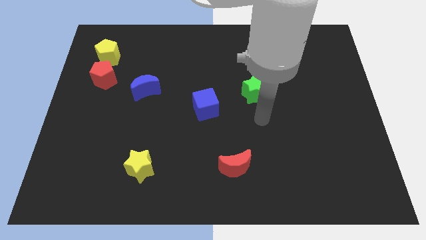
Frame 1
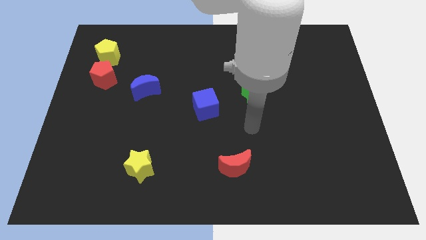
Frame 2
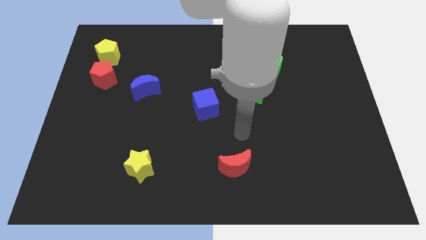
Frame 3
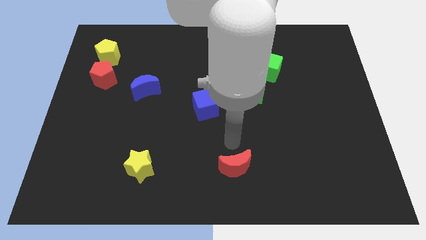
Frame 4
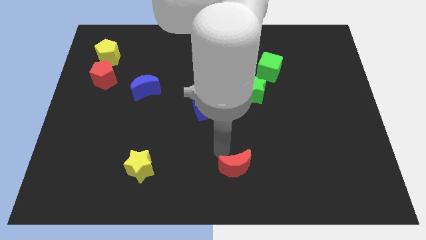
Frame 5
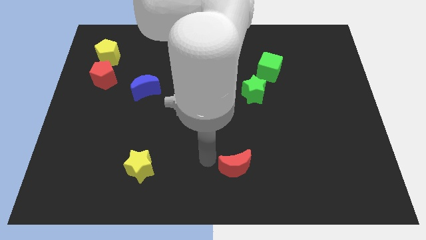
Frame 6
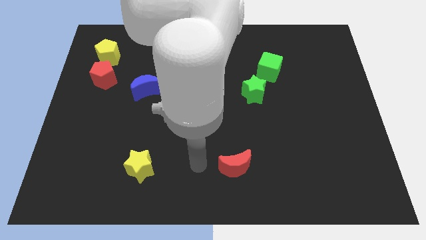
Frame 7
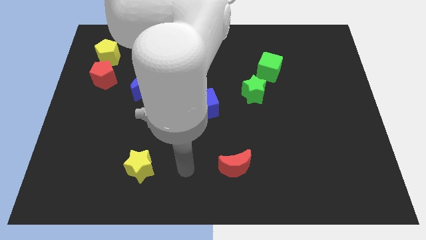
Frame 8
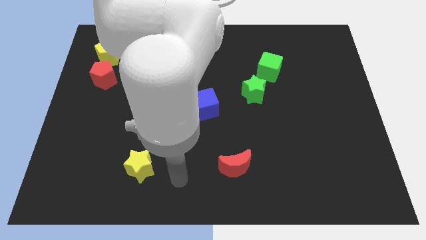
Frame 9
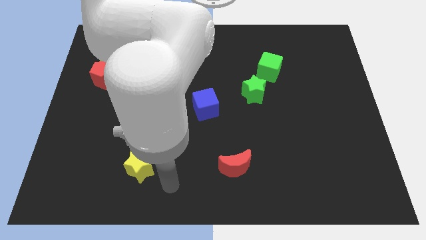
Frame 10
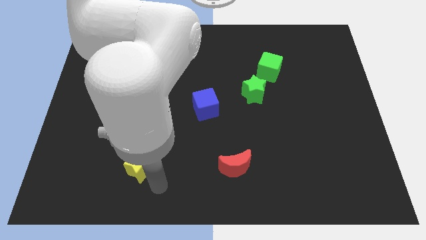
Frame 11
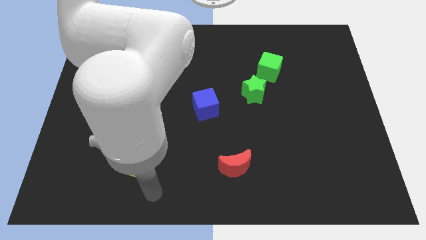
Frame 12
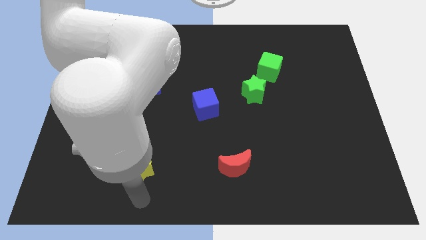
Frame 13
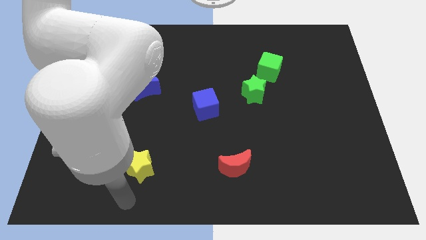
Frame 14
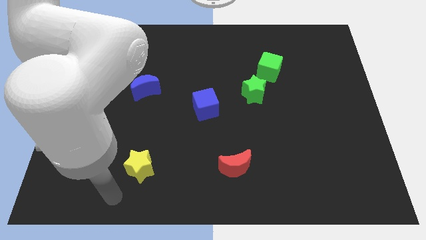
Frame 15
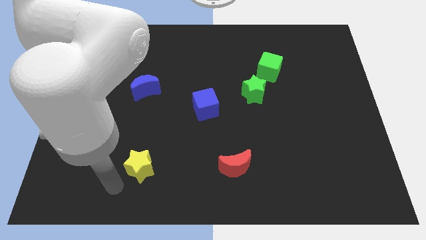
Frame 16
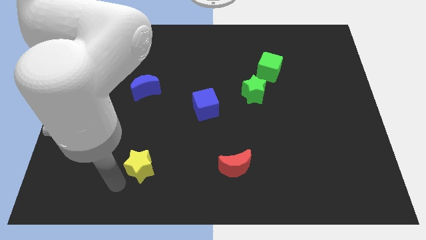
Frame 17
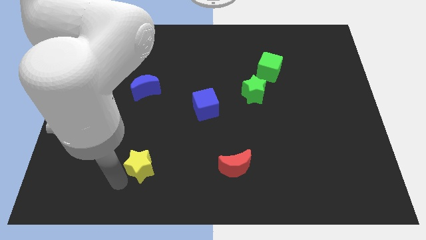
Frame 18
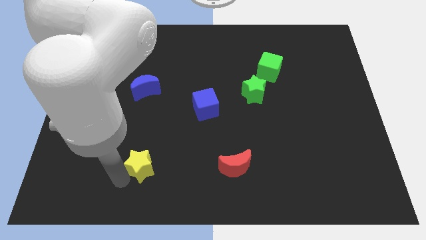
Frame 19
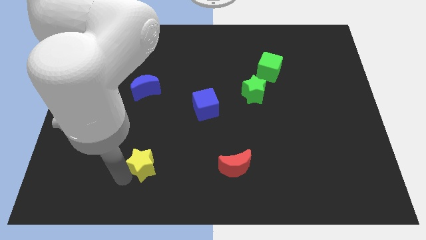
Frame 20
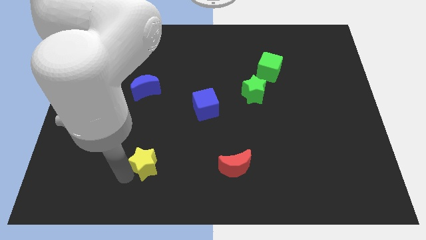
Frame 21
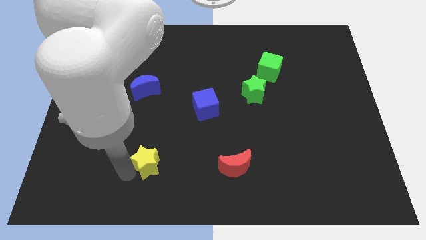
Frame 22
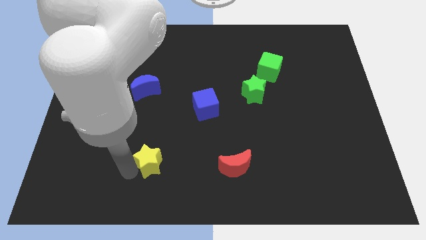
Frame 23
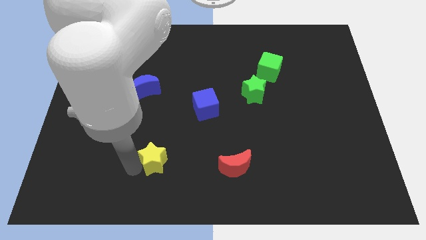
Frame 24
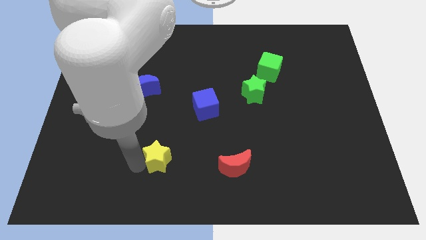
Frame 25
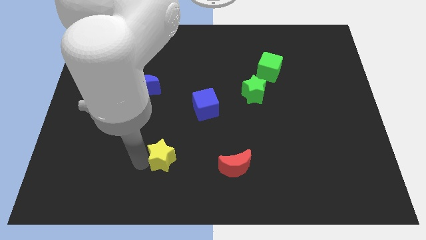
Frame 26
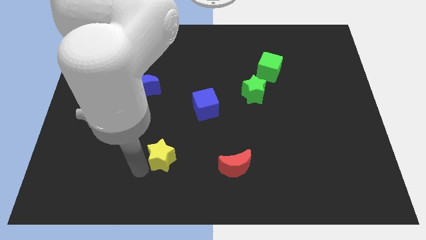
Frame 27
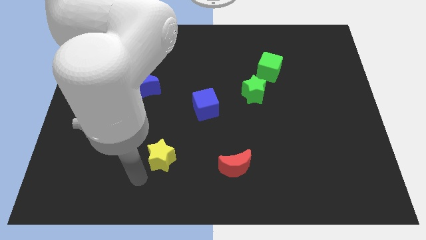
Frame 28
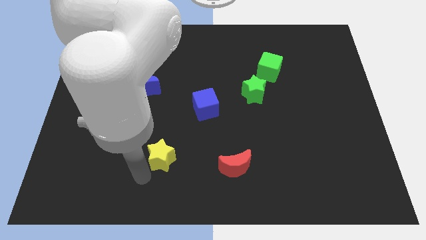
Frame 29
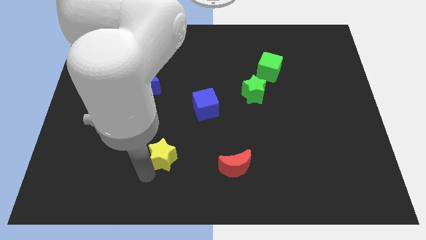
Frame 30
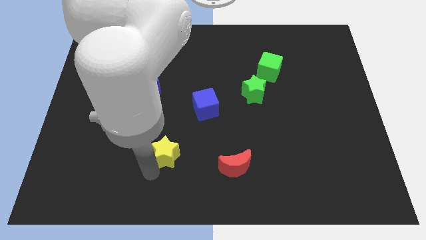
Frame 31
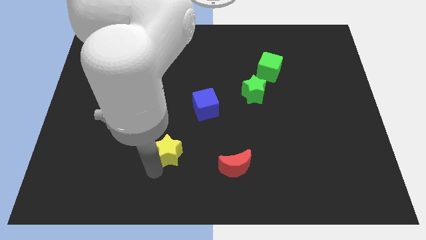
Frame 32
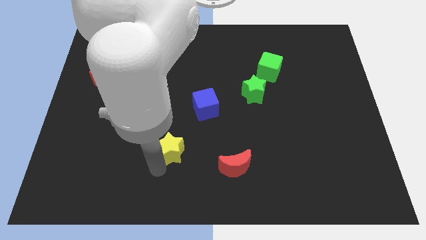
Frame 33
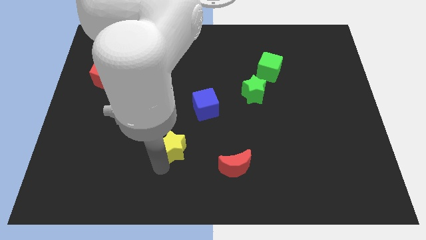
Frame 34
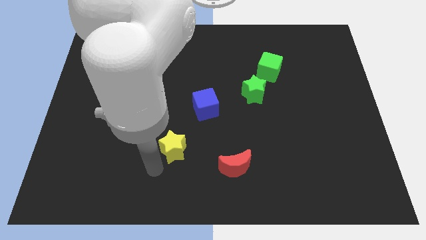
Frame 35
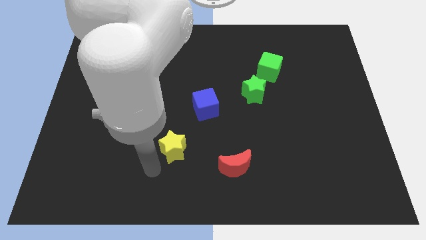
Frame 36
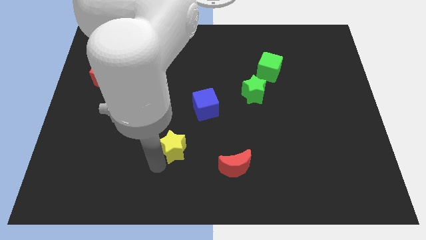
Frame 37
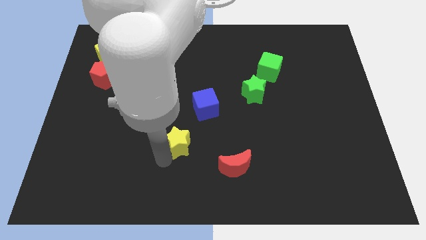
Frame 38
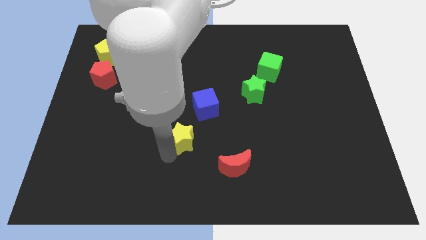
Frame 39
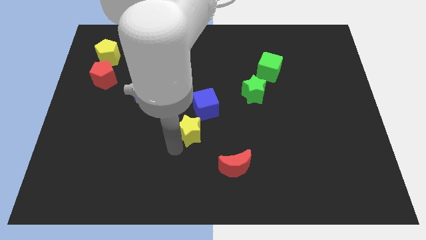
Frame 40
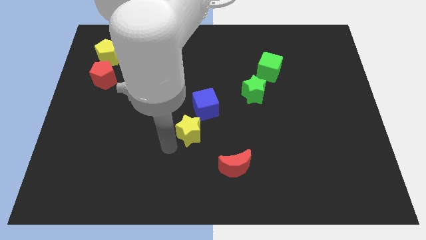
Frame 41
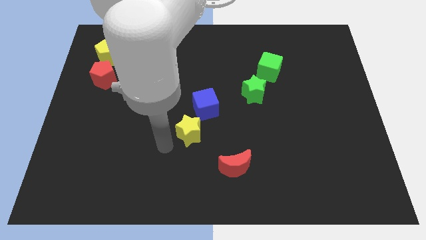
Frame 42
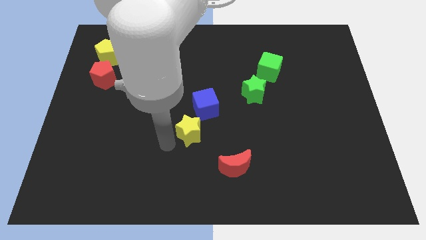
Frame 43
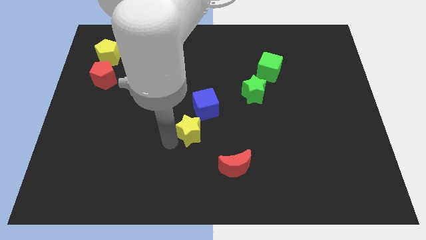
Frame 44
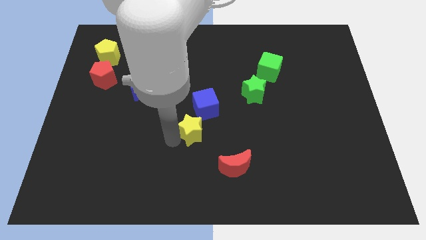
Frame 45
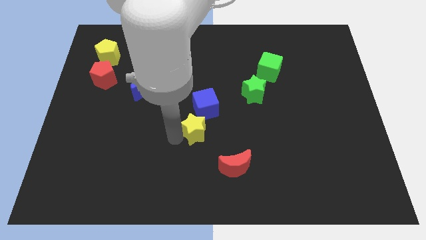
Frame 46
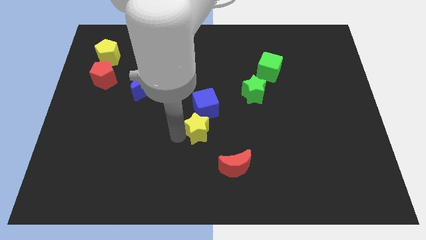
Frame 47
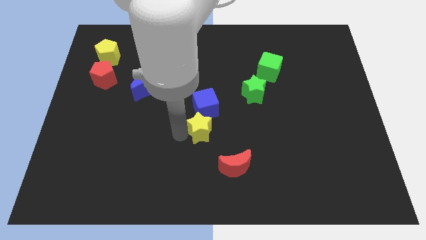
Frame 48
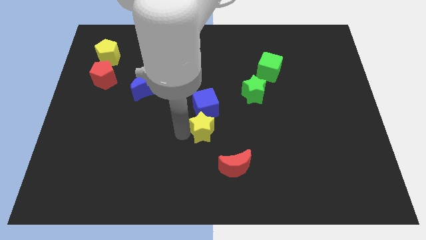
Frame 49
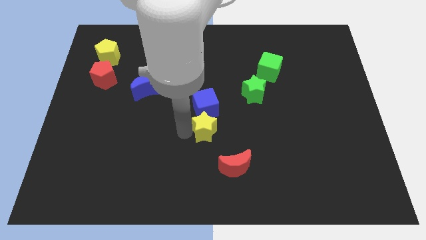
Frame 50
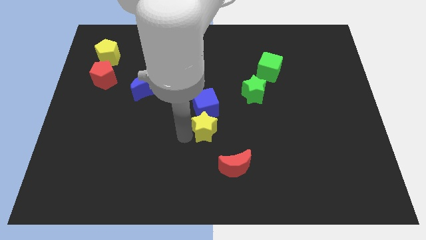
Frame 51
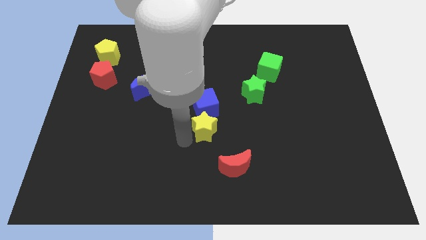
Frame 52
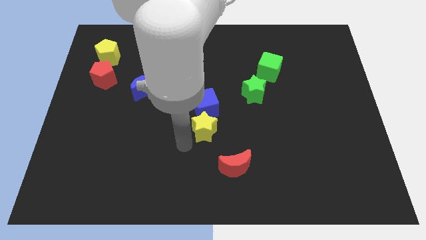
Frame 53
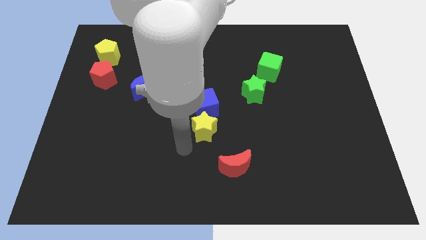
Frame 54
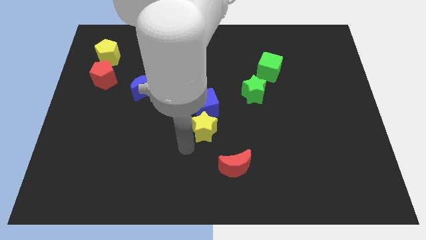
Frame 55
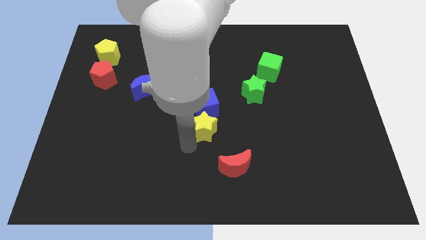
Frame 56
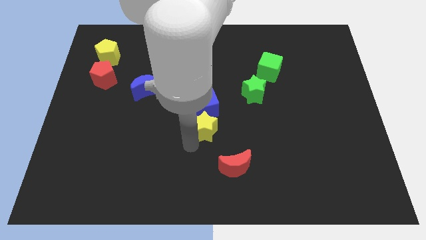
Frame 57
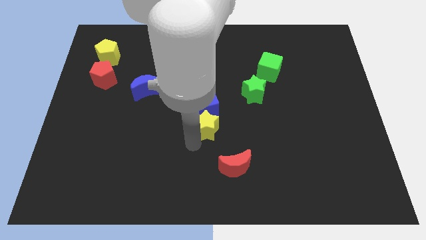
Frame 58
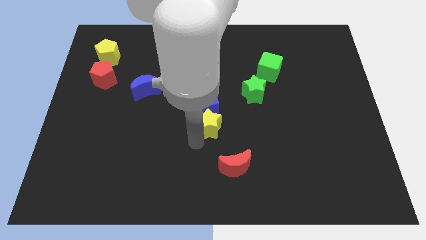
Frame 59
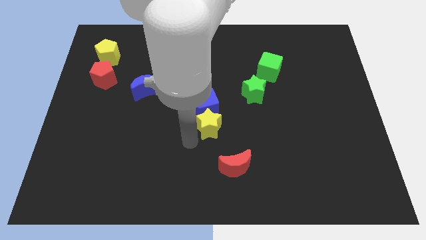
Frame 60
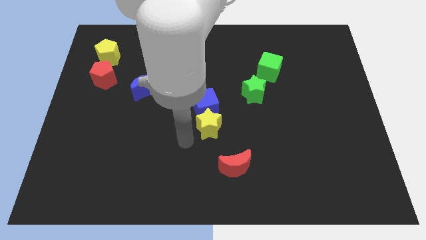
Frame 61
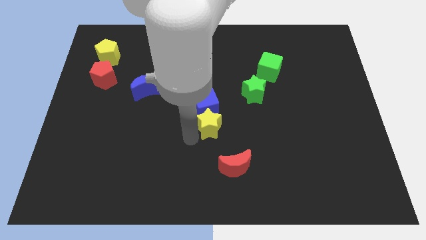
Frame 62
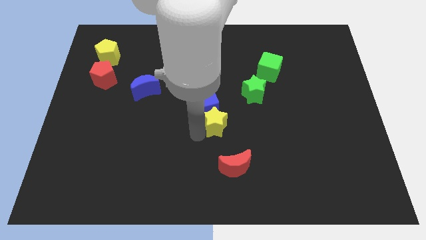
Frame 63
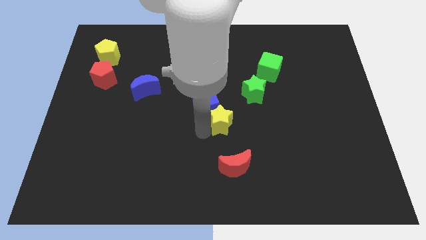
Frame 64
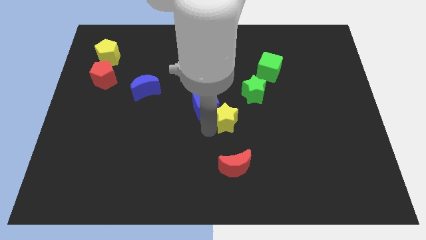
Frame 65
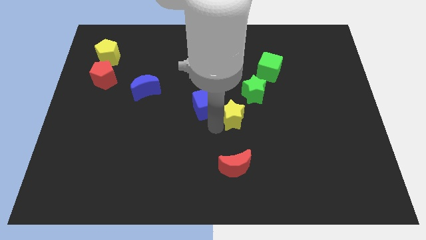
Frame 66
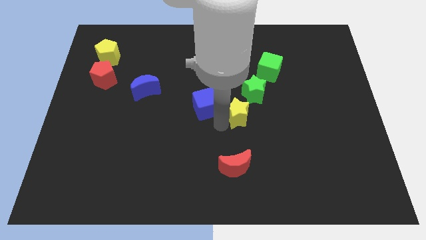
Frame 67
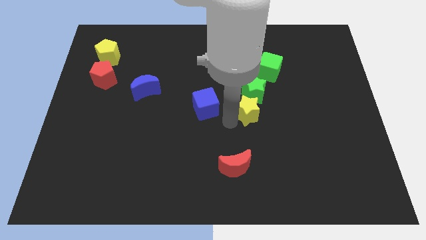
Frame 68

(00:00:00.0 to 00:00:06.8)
move the yellow star close to the green star

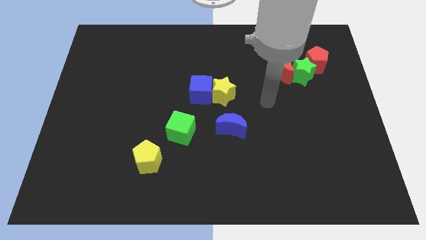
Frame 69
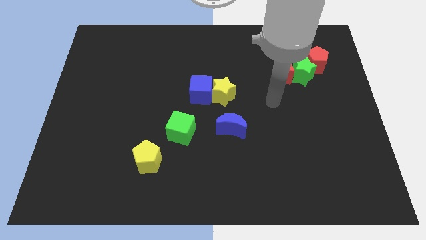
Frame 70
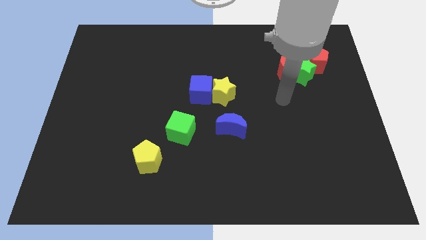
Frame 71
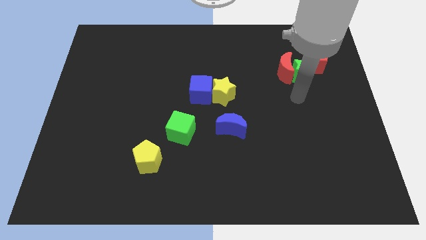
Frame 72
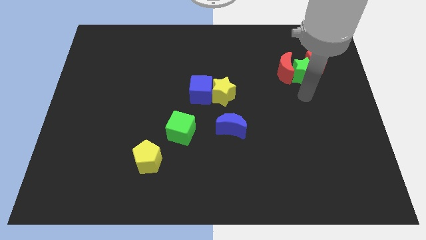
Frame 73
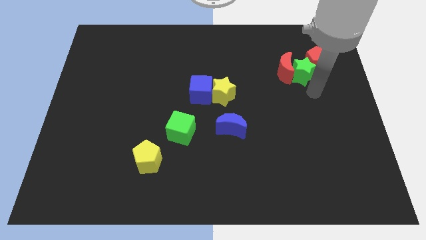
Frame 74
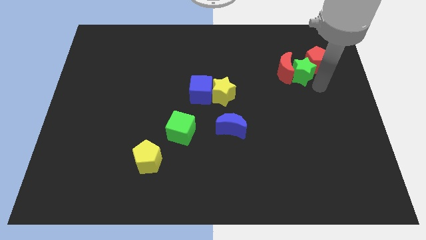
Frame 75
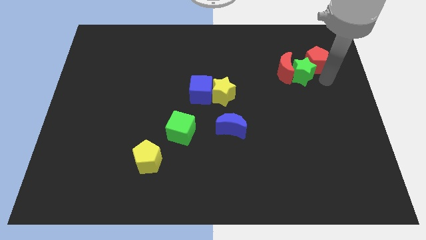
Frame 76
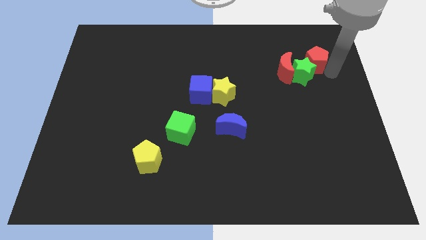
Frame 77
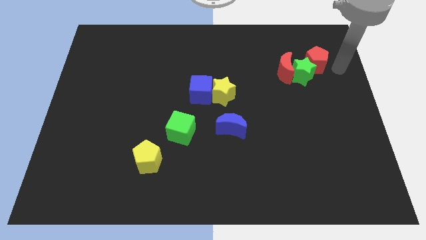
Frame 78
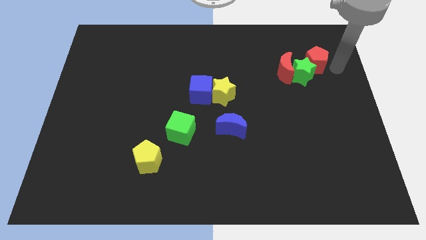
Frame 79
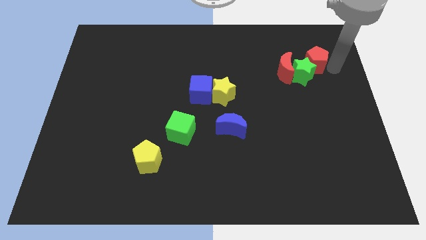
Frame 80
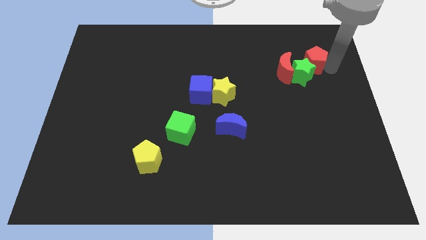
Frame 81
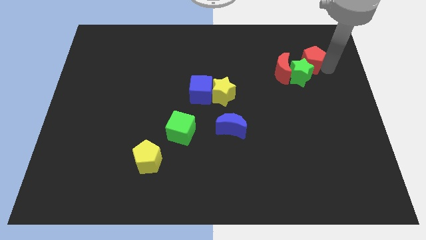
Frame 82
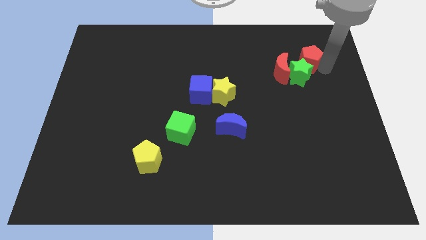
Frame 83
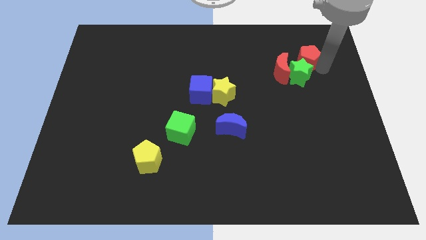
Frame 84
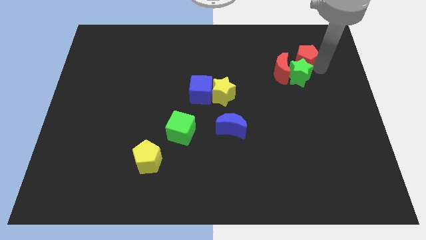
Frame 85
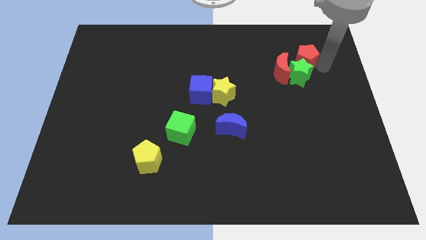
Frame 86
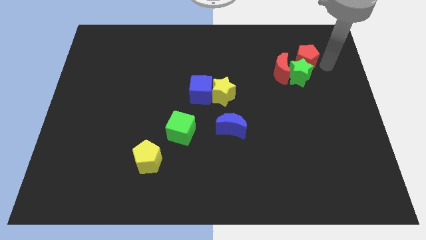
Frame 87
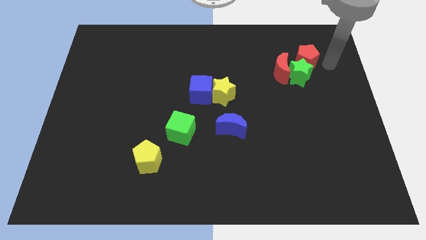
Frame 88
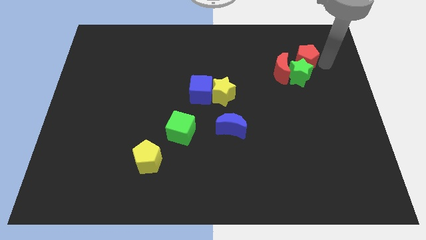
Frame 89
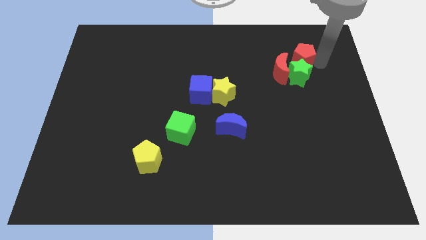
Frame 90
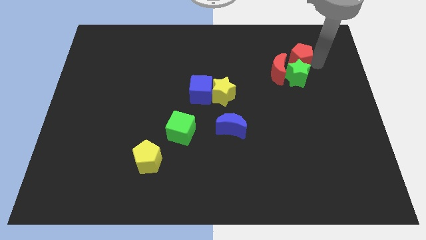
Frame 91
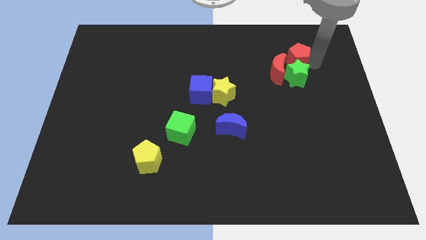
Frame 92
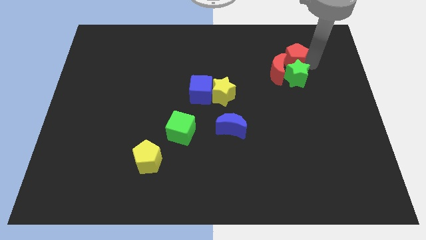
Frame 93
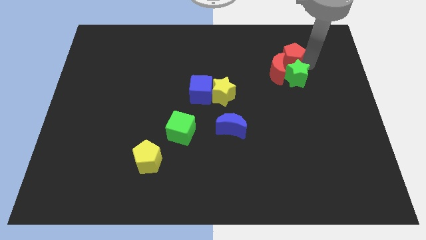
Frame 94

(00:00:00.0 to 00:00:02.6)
slide the red pentagon to the red moon
